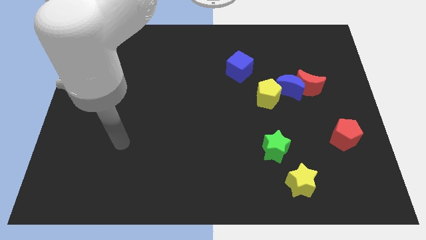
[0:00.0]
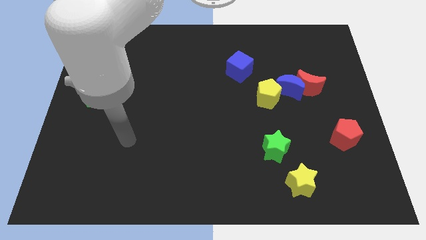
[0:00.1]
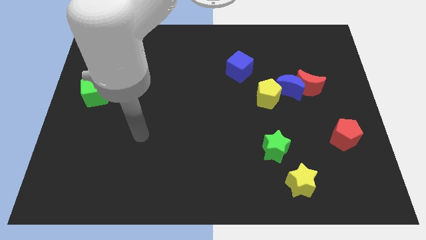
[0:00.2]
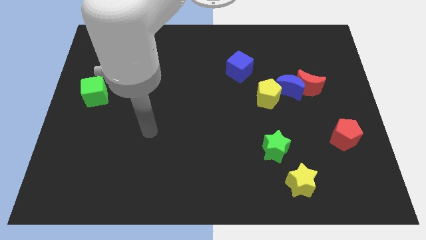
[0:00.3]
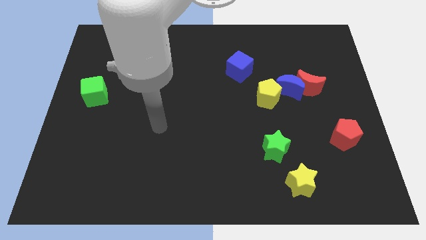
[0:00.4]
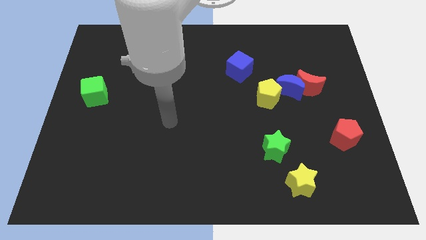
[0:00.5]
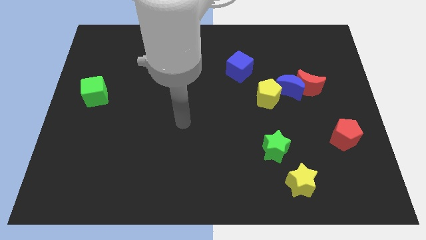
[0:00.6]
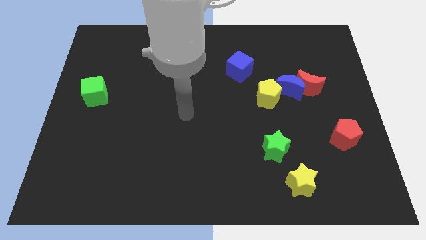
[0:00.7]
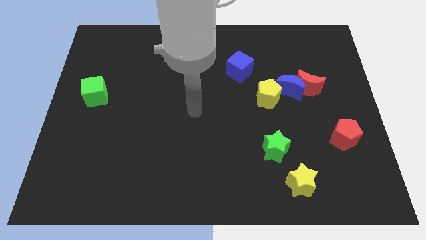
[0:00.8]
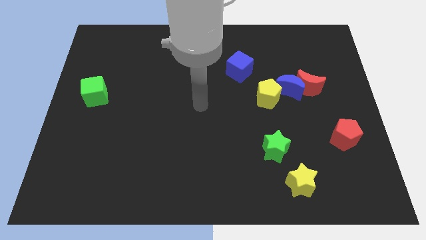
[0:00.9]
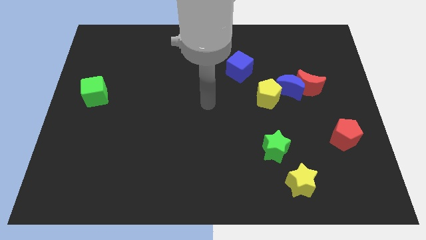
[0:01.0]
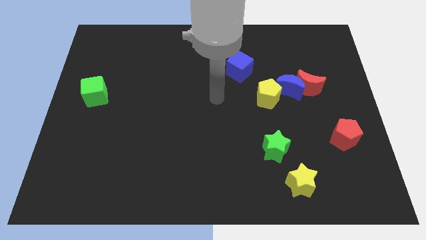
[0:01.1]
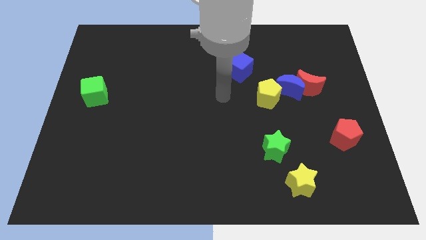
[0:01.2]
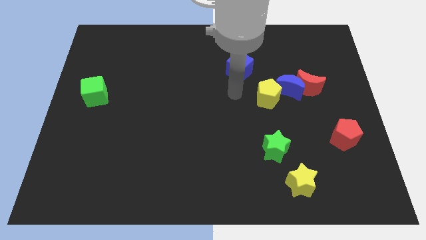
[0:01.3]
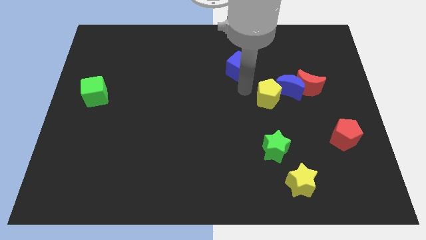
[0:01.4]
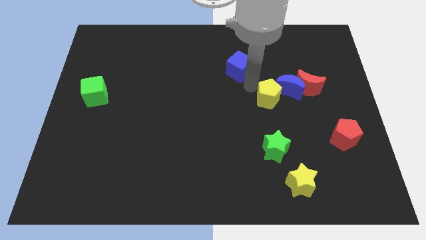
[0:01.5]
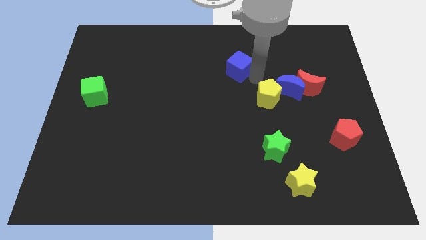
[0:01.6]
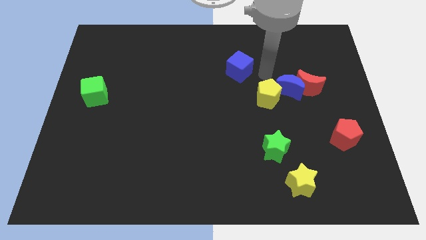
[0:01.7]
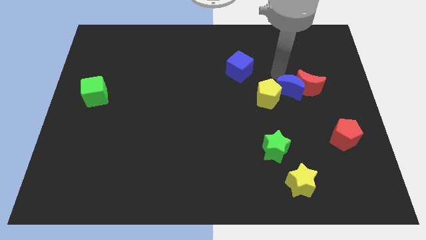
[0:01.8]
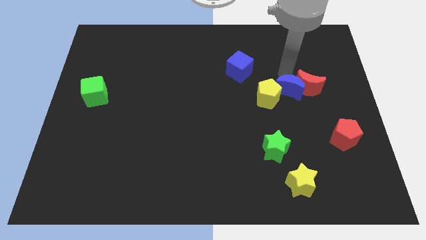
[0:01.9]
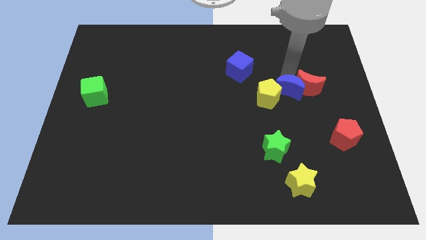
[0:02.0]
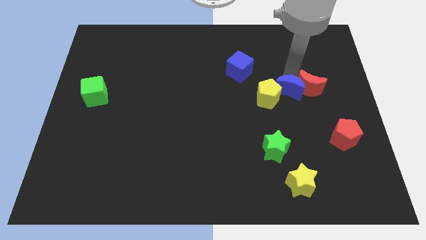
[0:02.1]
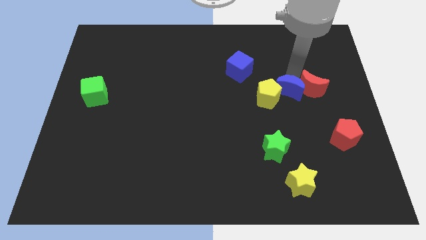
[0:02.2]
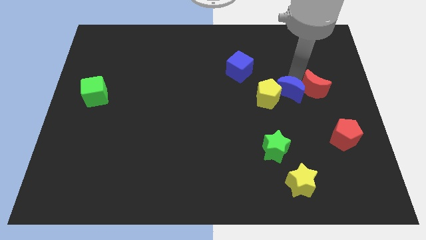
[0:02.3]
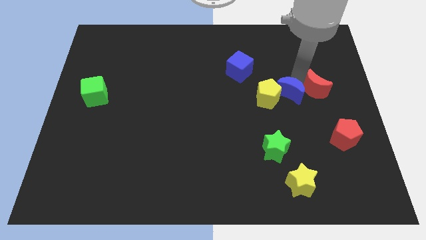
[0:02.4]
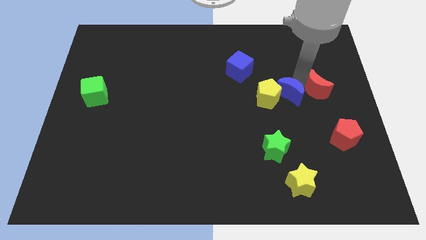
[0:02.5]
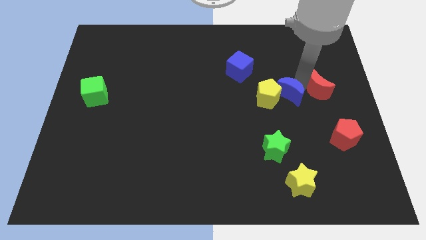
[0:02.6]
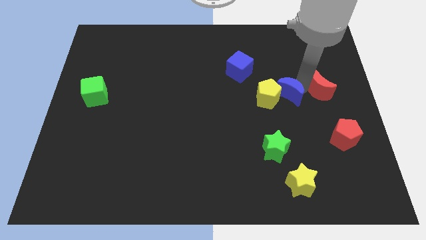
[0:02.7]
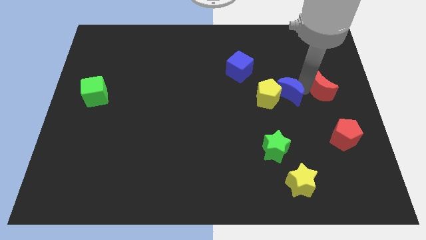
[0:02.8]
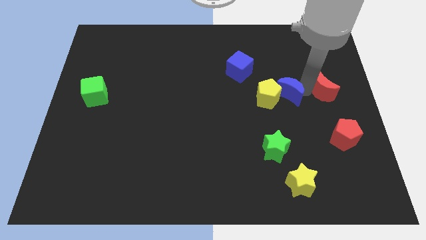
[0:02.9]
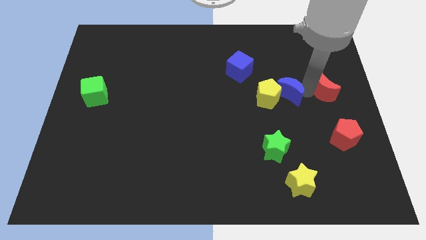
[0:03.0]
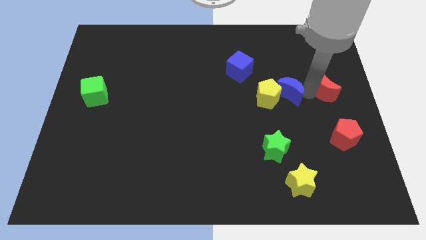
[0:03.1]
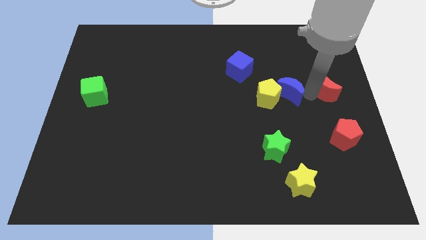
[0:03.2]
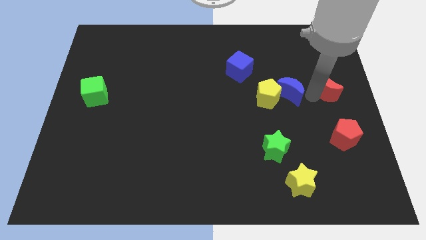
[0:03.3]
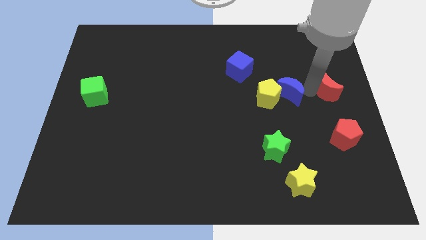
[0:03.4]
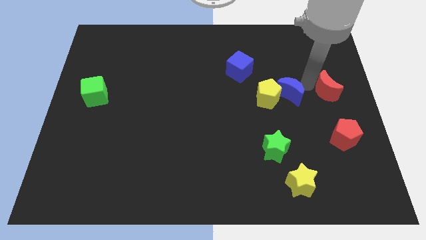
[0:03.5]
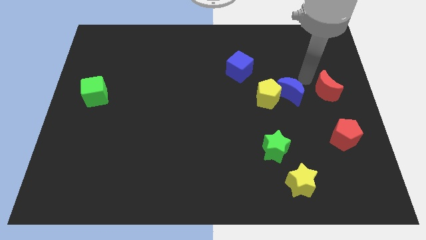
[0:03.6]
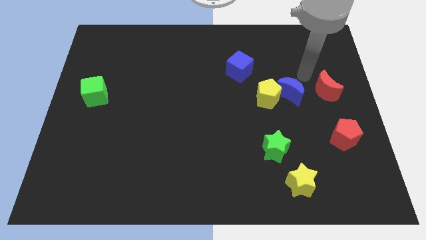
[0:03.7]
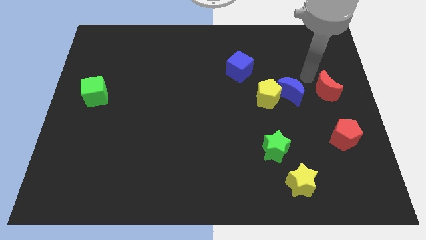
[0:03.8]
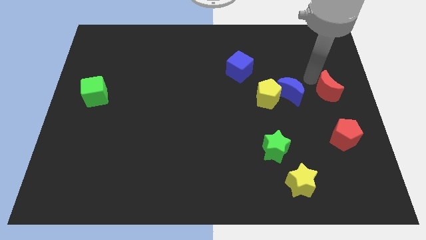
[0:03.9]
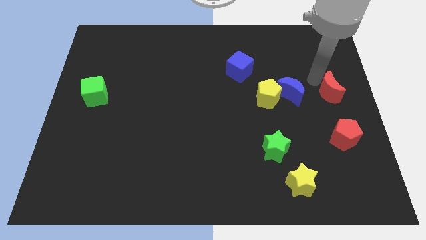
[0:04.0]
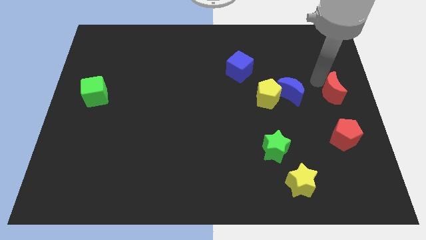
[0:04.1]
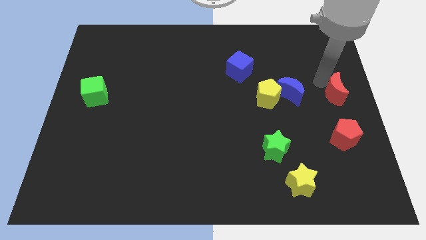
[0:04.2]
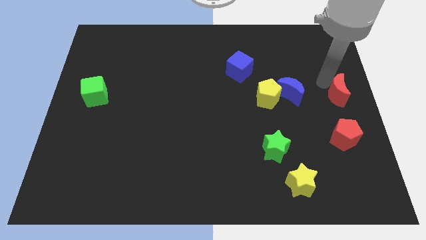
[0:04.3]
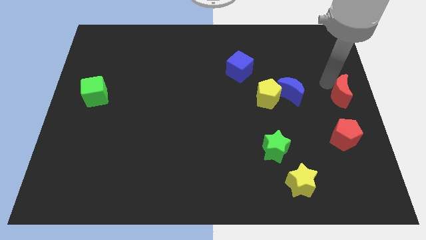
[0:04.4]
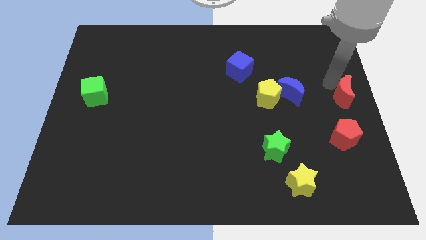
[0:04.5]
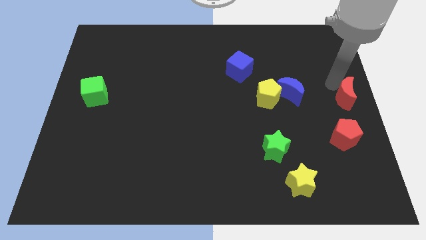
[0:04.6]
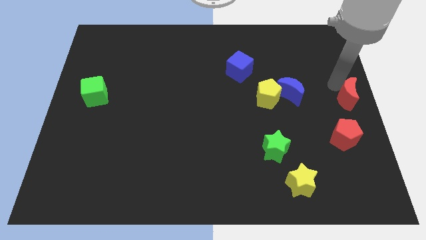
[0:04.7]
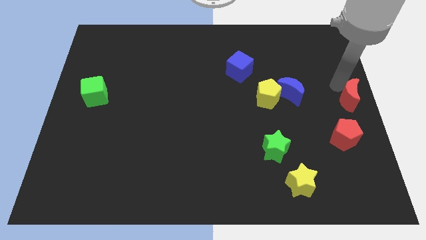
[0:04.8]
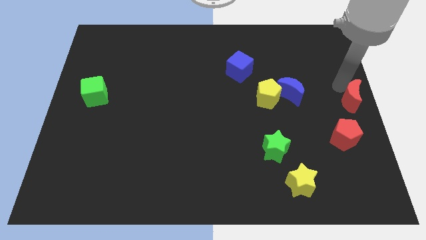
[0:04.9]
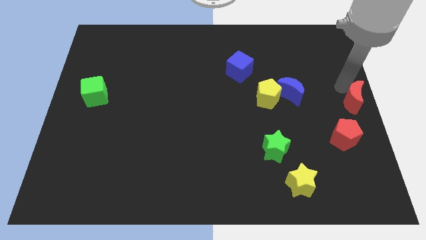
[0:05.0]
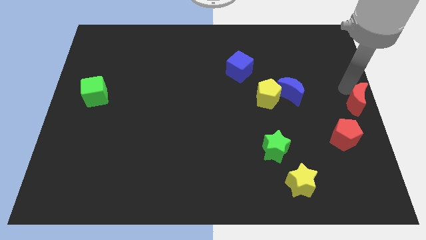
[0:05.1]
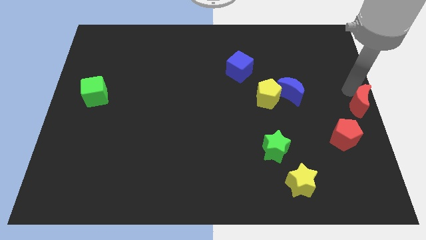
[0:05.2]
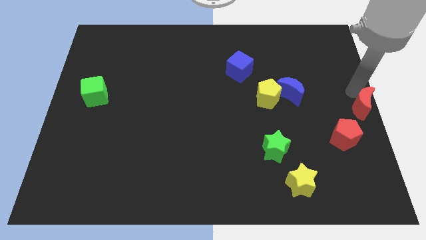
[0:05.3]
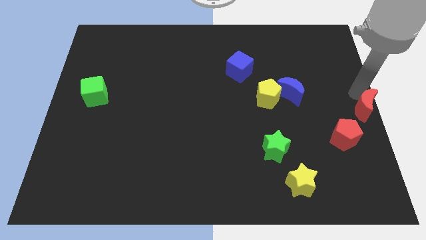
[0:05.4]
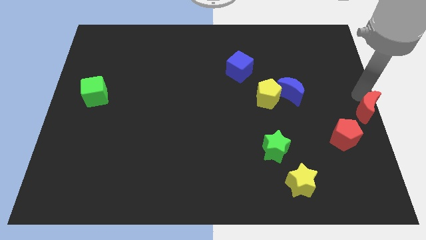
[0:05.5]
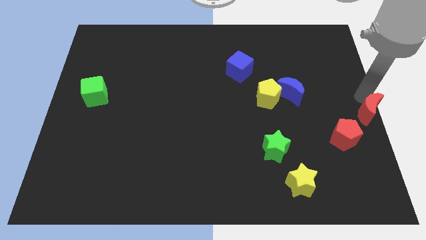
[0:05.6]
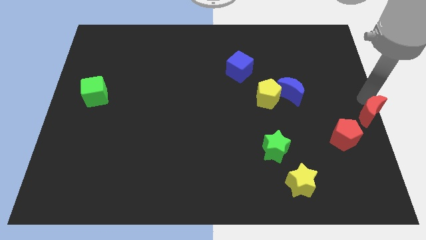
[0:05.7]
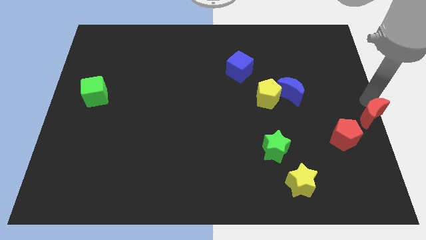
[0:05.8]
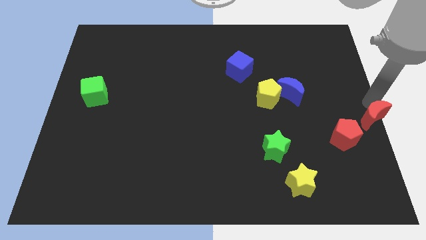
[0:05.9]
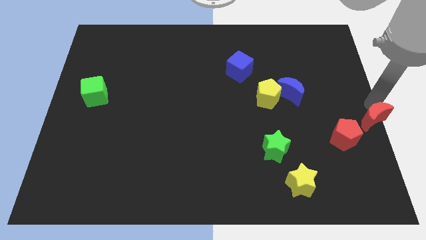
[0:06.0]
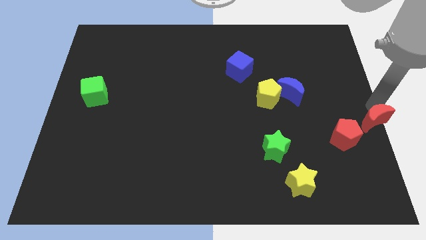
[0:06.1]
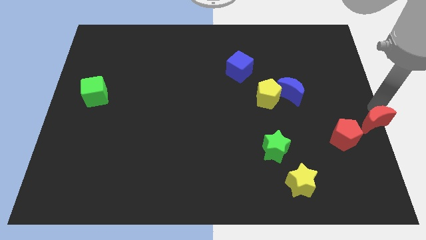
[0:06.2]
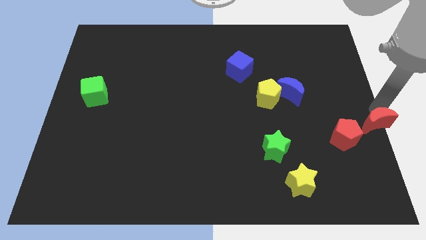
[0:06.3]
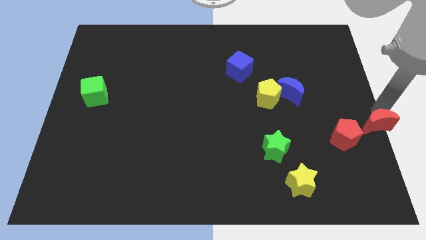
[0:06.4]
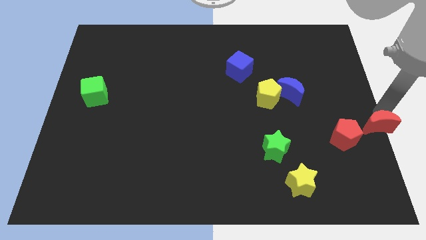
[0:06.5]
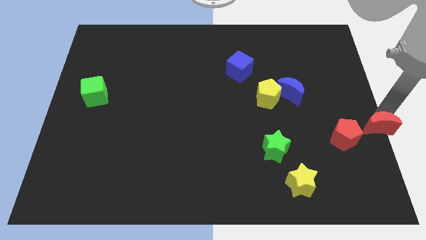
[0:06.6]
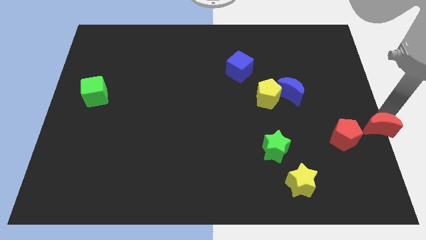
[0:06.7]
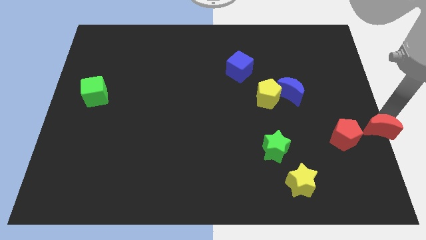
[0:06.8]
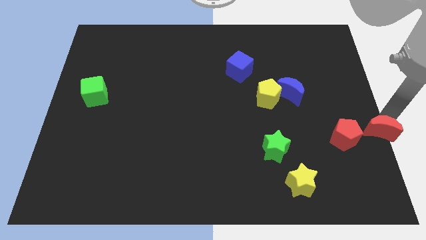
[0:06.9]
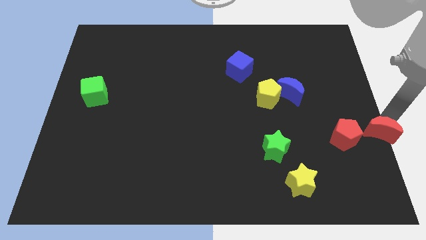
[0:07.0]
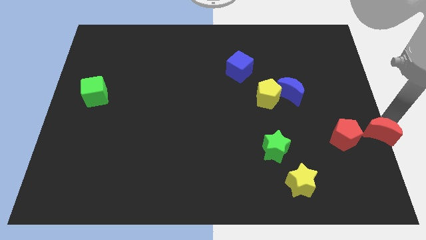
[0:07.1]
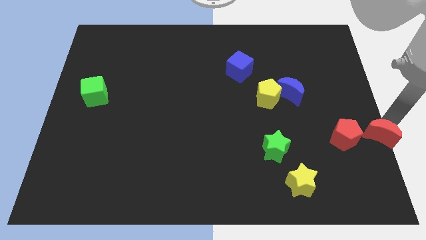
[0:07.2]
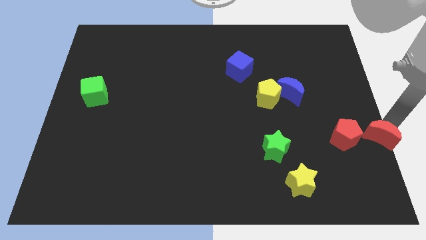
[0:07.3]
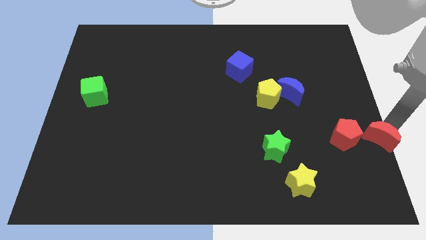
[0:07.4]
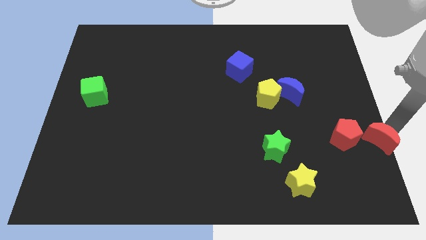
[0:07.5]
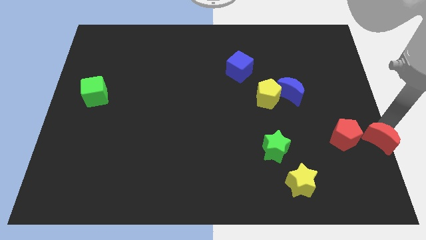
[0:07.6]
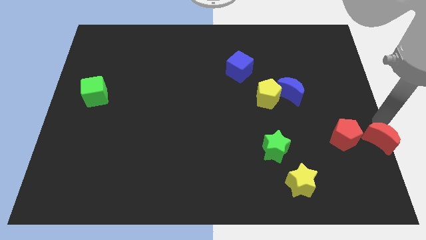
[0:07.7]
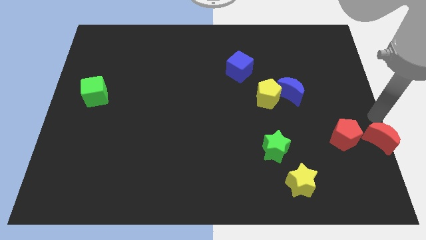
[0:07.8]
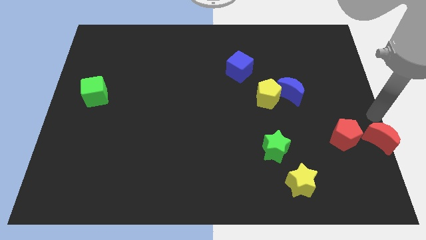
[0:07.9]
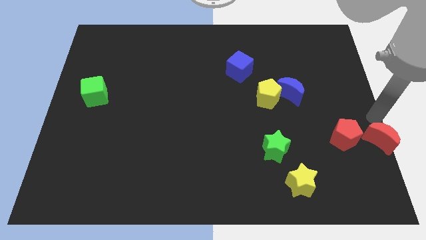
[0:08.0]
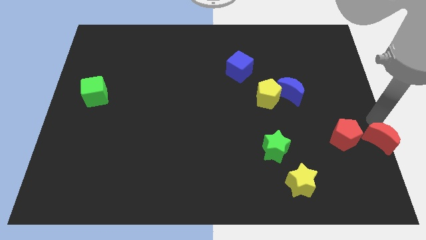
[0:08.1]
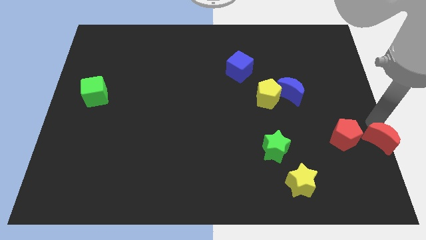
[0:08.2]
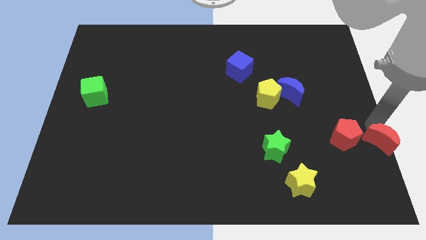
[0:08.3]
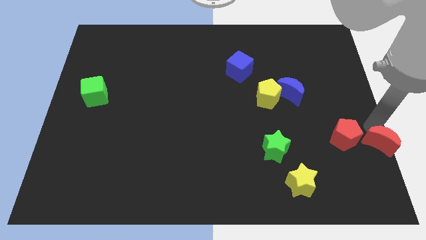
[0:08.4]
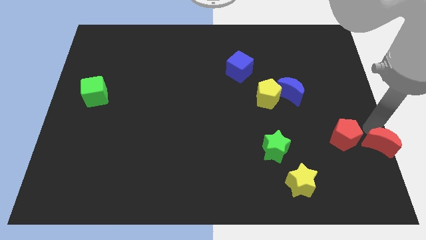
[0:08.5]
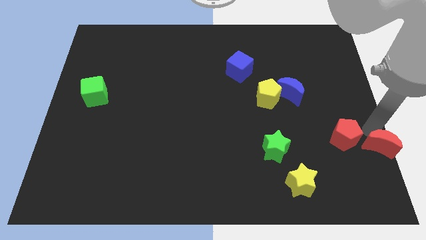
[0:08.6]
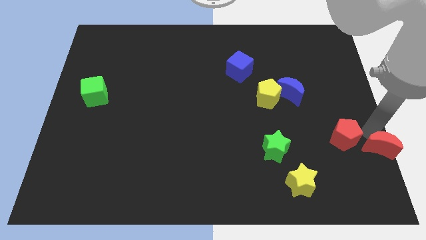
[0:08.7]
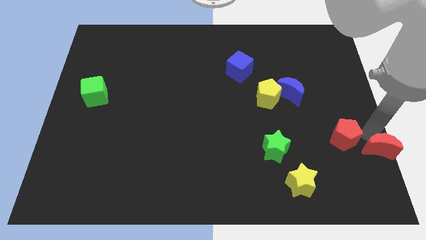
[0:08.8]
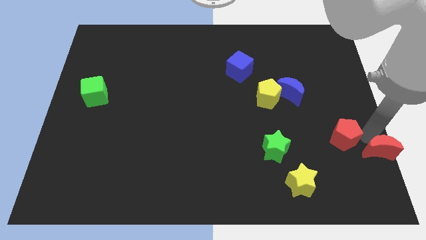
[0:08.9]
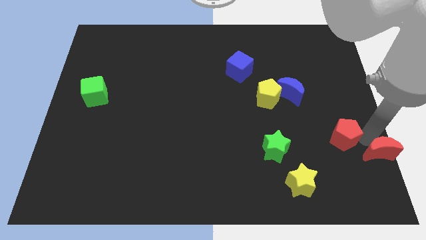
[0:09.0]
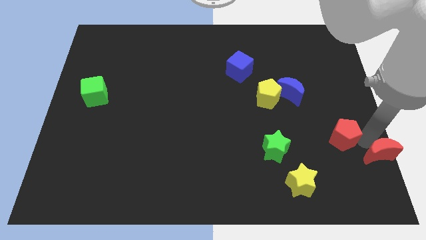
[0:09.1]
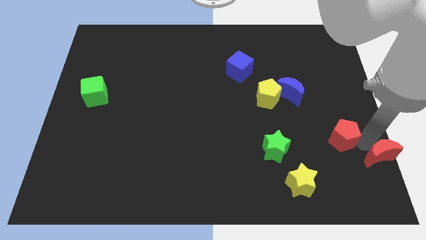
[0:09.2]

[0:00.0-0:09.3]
push the red moon to the bottom right
